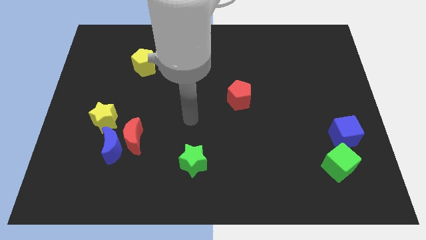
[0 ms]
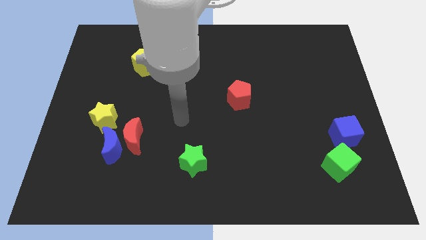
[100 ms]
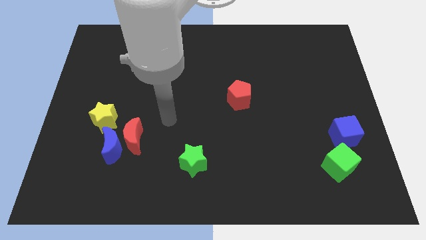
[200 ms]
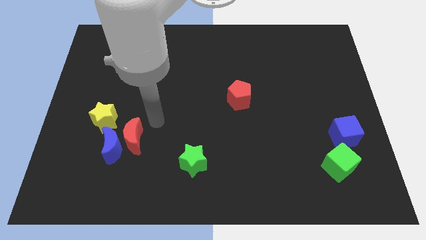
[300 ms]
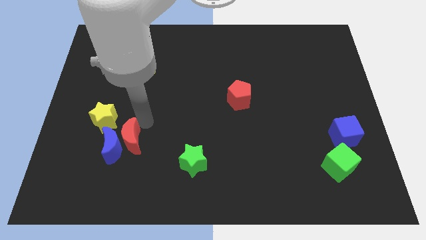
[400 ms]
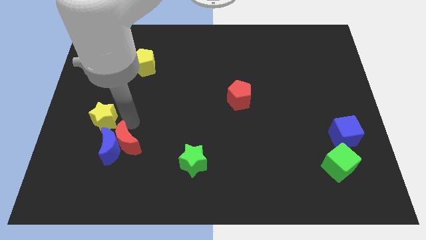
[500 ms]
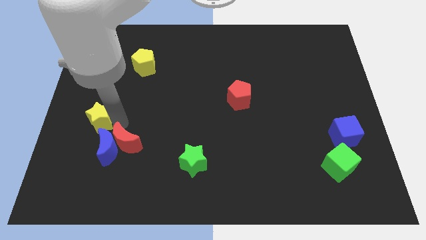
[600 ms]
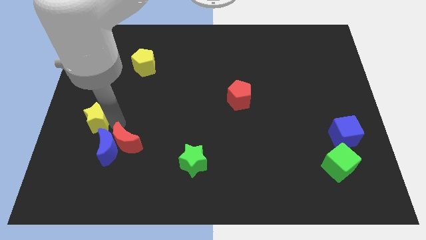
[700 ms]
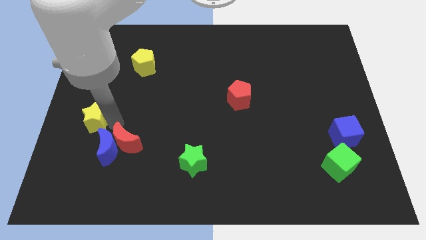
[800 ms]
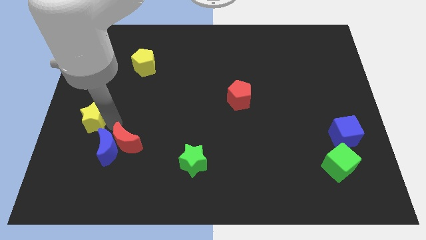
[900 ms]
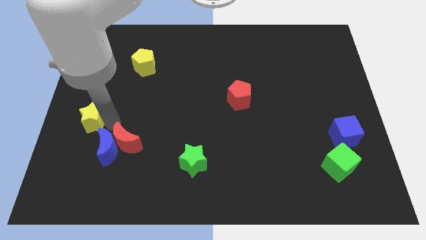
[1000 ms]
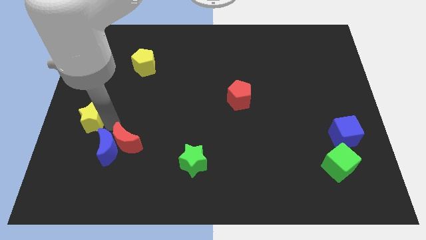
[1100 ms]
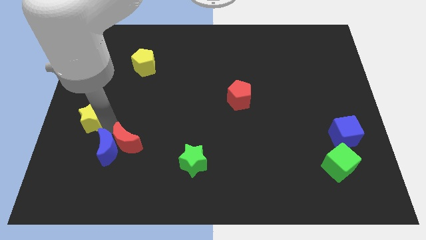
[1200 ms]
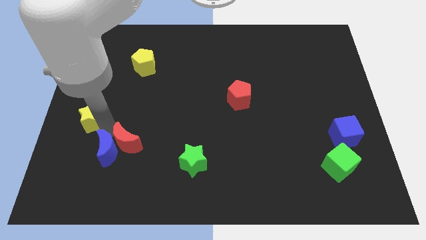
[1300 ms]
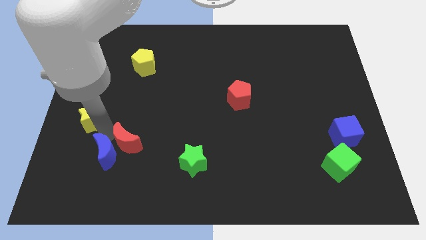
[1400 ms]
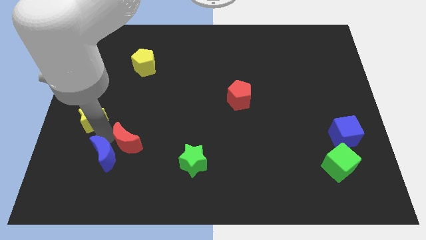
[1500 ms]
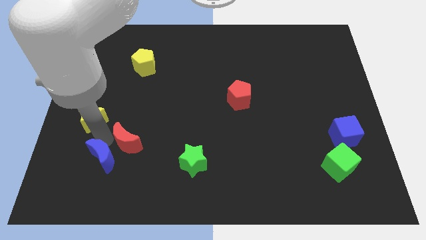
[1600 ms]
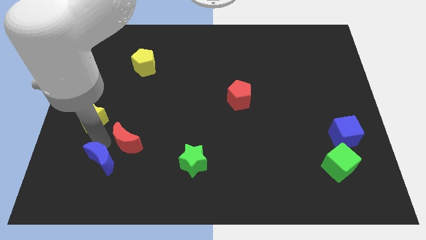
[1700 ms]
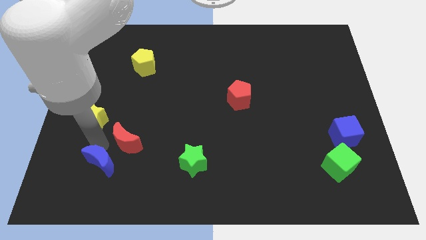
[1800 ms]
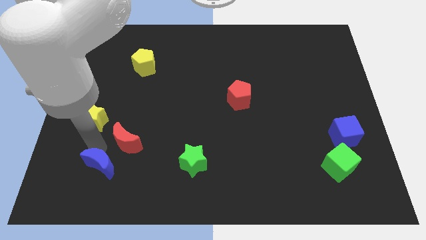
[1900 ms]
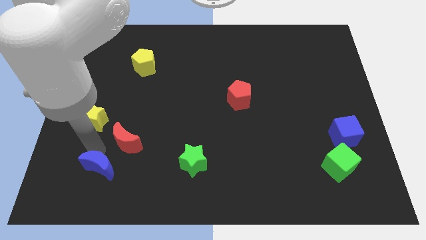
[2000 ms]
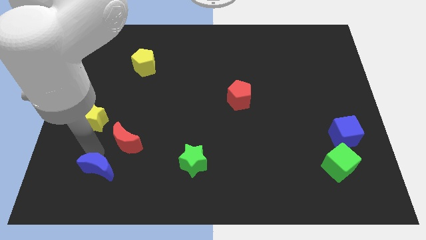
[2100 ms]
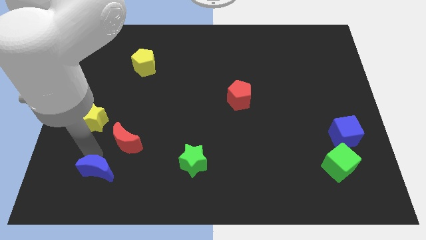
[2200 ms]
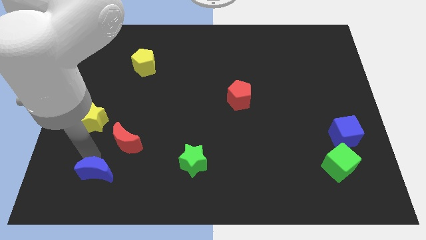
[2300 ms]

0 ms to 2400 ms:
pull the blue moon apart from the red moon and yellow star

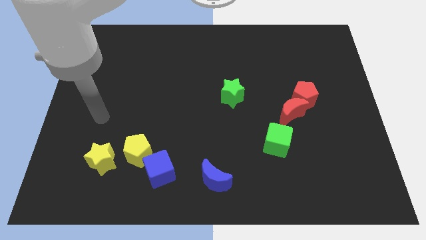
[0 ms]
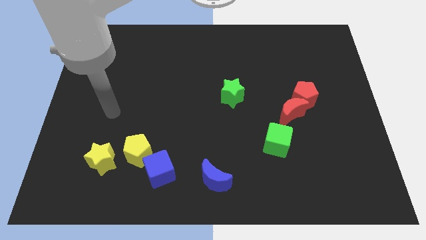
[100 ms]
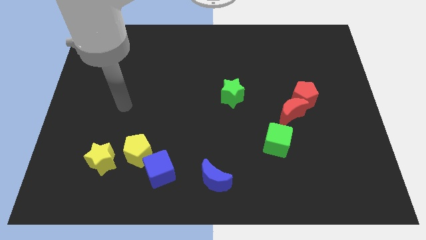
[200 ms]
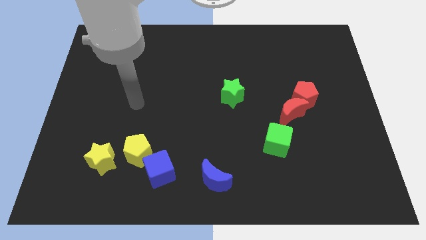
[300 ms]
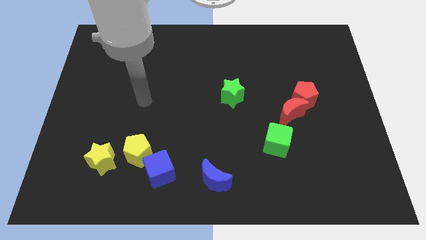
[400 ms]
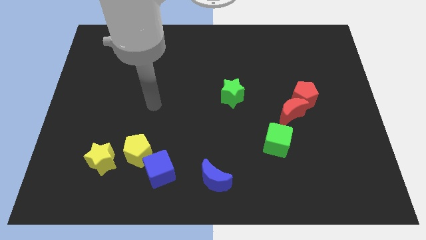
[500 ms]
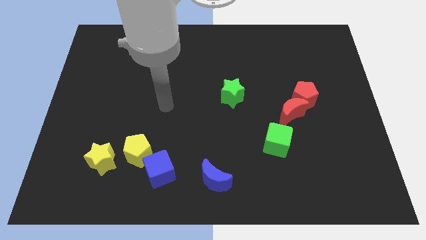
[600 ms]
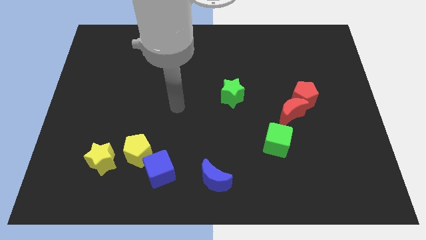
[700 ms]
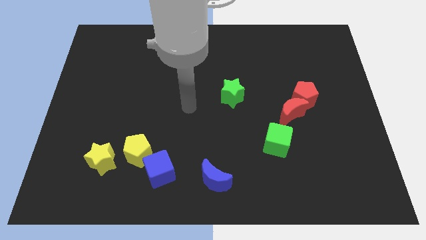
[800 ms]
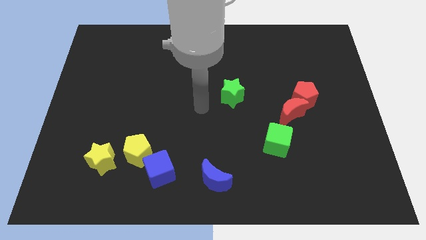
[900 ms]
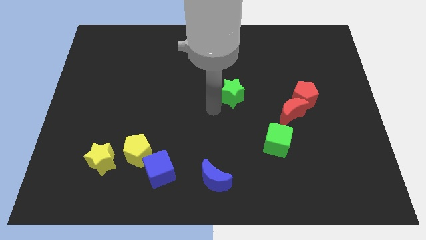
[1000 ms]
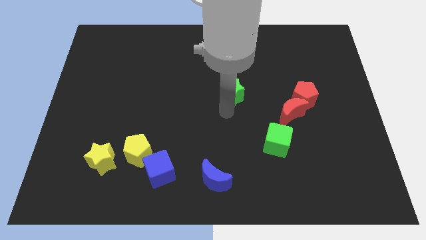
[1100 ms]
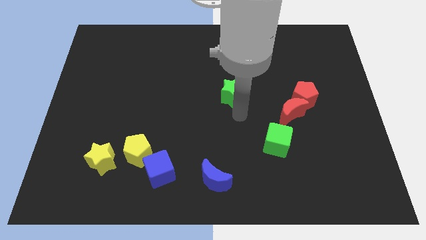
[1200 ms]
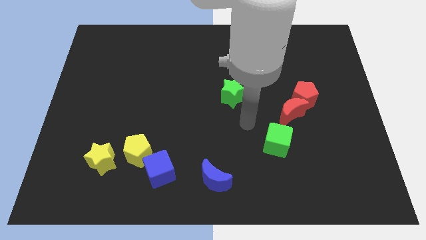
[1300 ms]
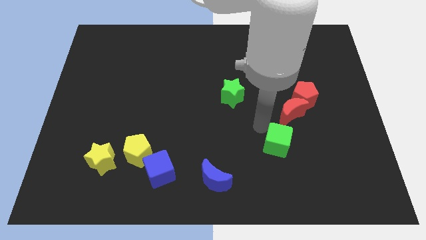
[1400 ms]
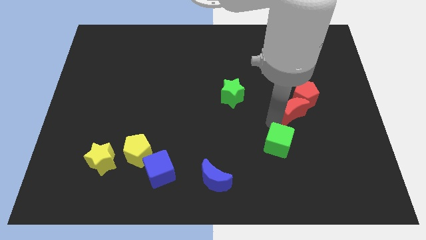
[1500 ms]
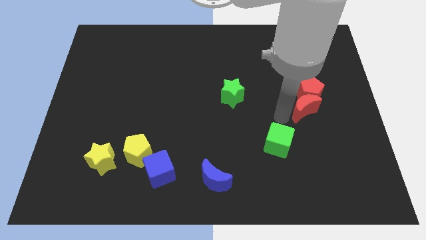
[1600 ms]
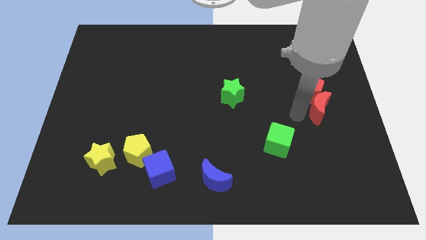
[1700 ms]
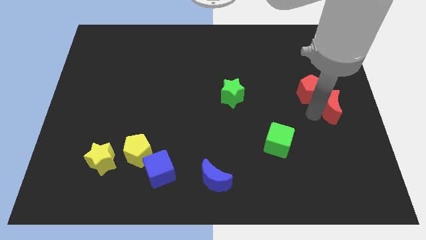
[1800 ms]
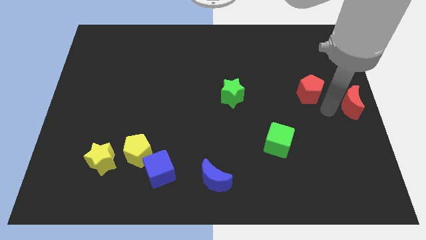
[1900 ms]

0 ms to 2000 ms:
move the red pentagon away from the red moon

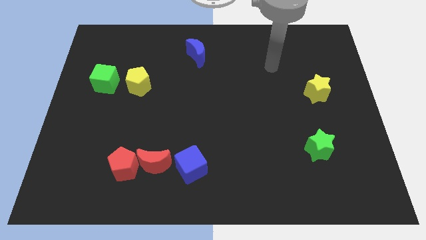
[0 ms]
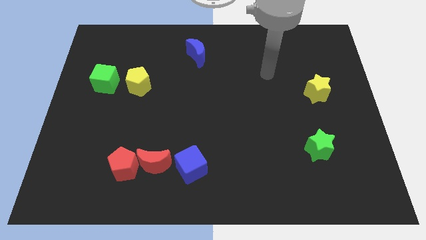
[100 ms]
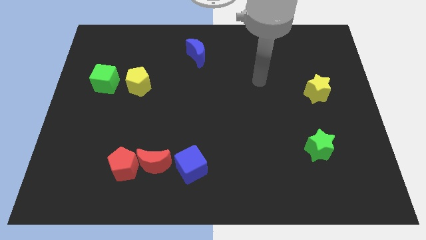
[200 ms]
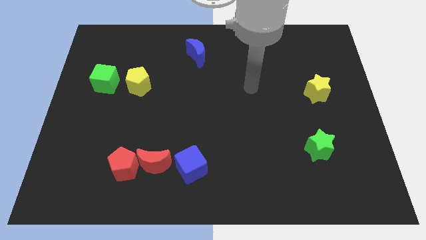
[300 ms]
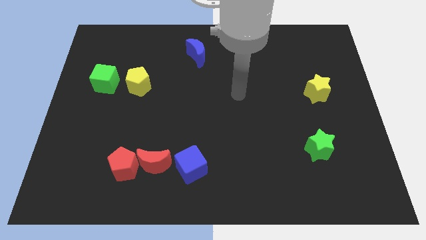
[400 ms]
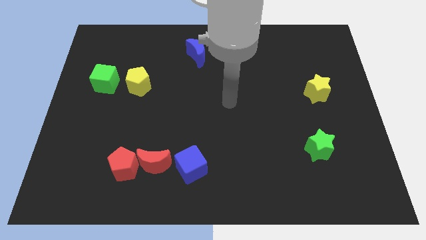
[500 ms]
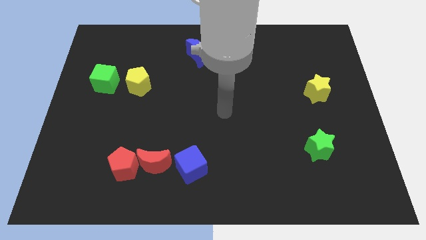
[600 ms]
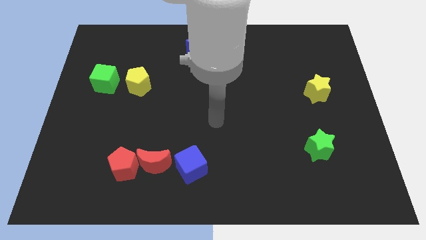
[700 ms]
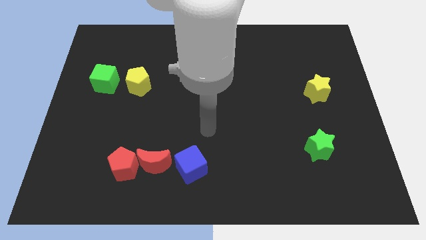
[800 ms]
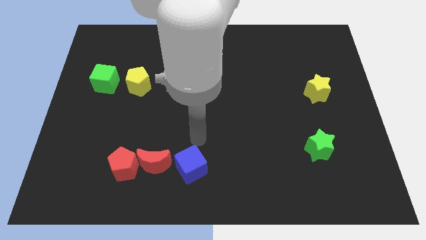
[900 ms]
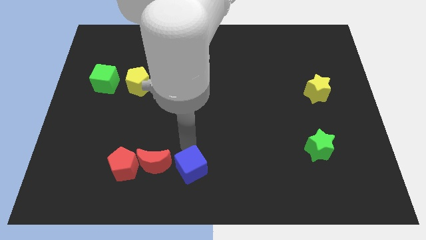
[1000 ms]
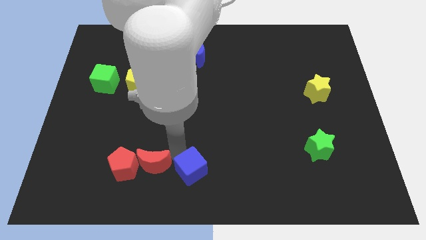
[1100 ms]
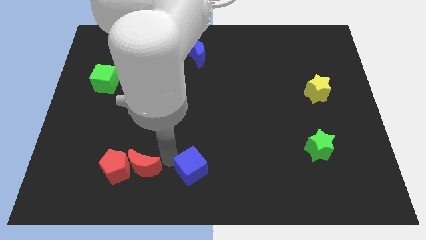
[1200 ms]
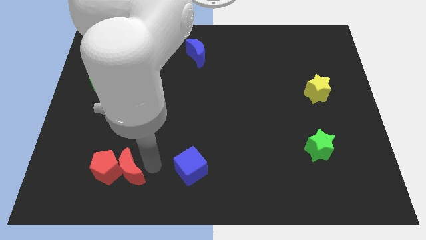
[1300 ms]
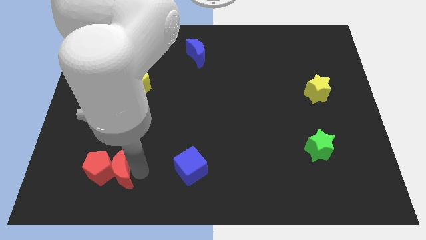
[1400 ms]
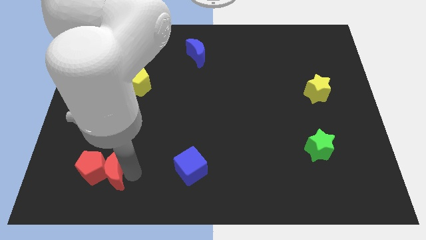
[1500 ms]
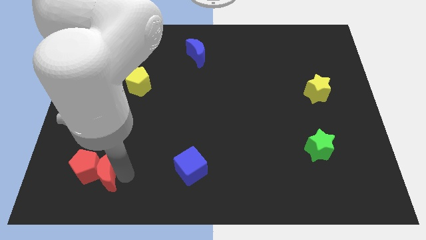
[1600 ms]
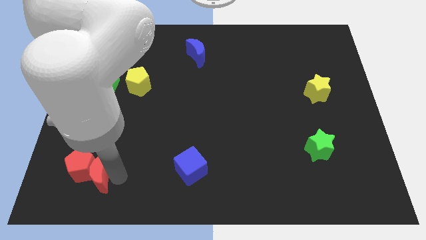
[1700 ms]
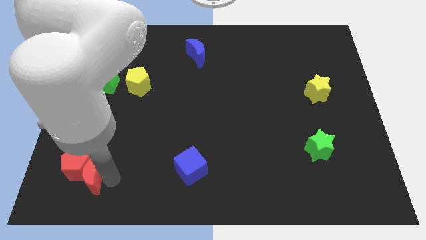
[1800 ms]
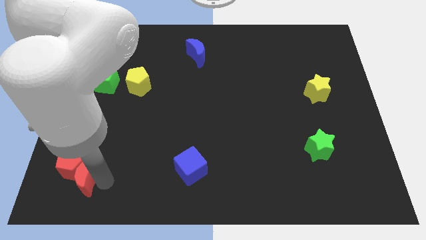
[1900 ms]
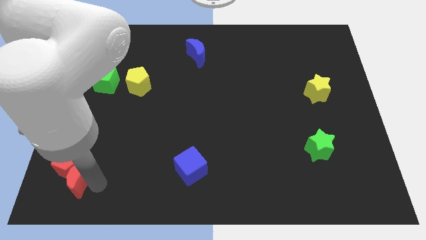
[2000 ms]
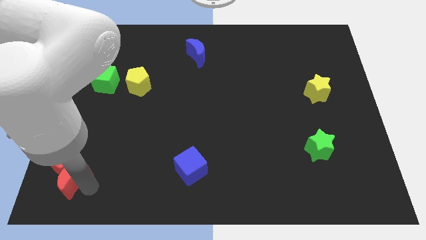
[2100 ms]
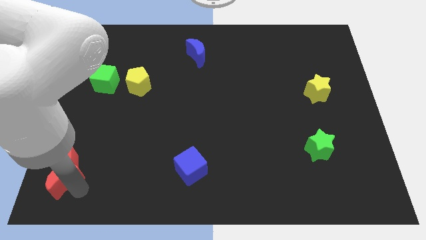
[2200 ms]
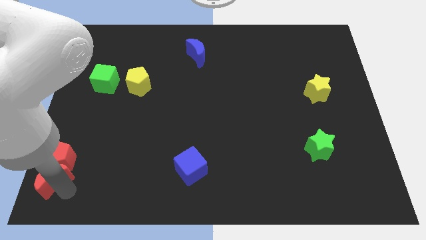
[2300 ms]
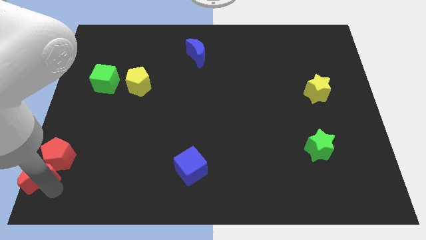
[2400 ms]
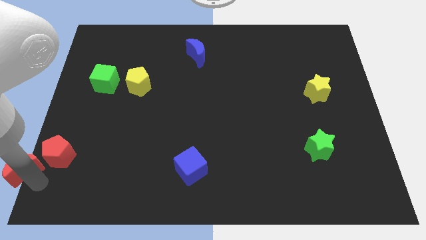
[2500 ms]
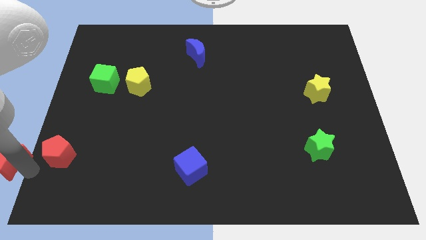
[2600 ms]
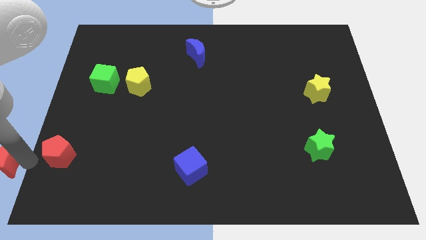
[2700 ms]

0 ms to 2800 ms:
pull the red pentagon apart from the red moon

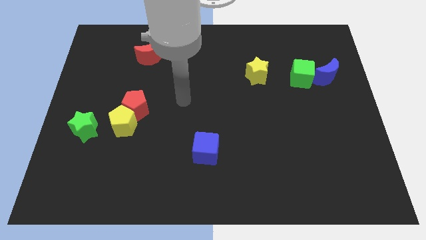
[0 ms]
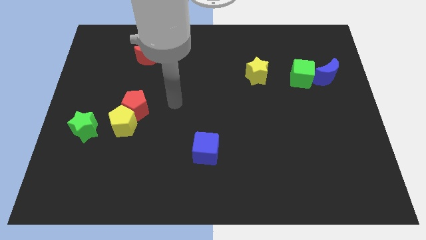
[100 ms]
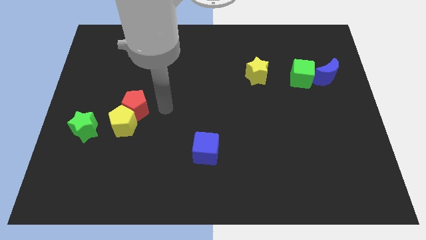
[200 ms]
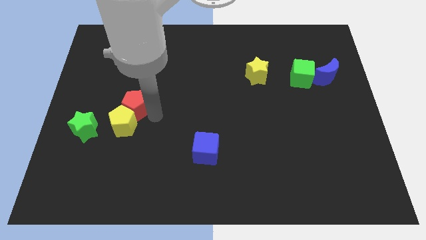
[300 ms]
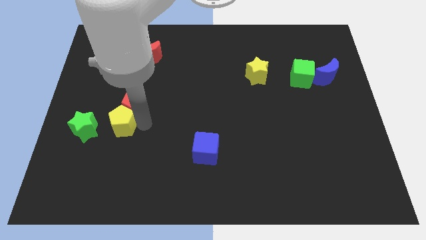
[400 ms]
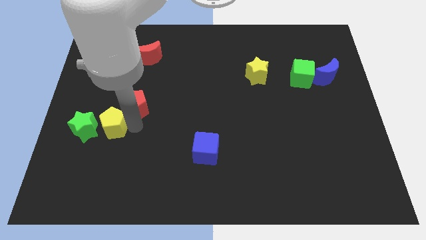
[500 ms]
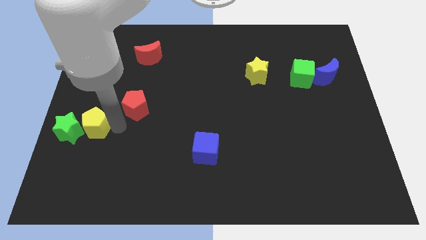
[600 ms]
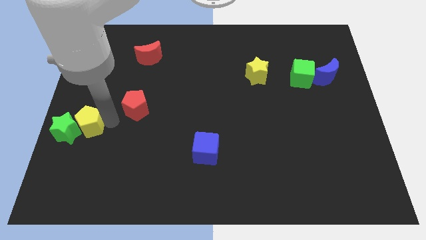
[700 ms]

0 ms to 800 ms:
pull the red pentagon apart from the yellow pentagon

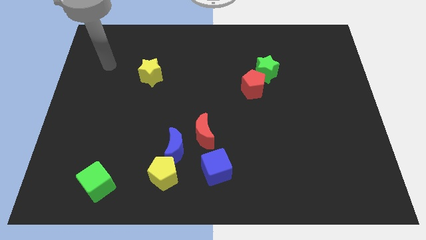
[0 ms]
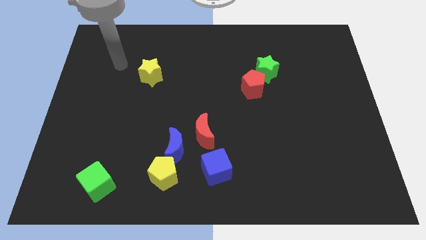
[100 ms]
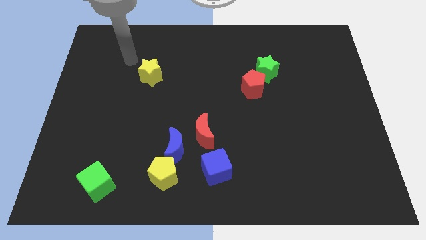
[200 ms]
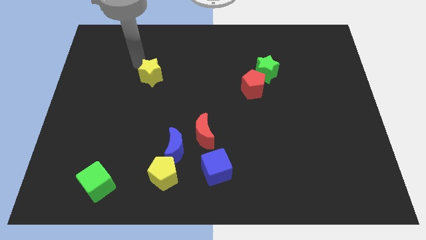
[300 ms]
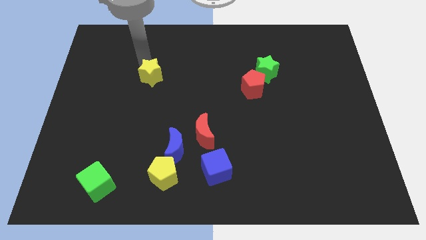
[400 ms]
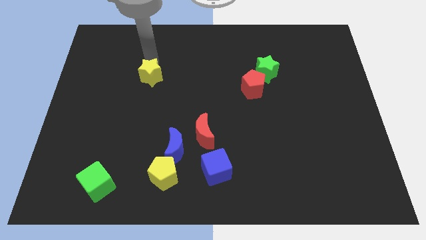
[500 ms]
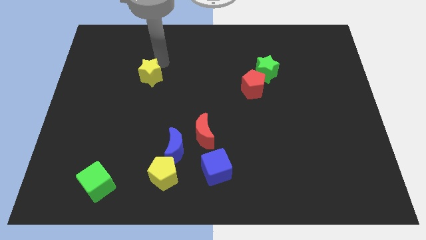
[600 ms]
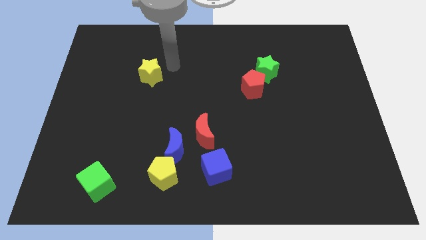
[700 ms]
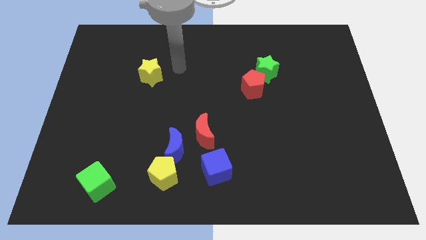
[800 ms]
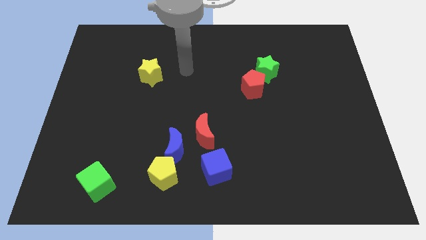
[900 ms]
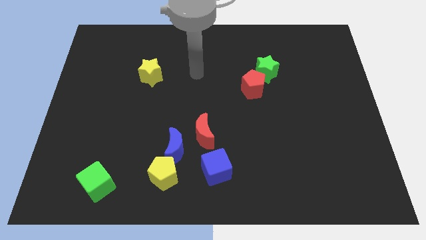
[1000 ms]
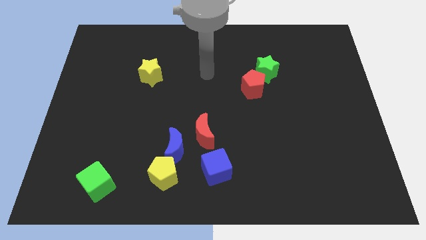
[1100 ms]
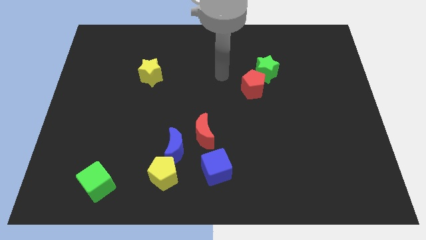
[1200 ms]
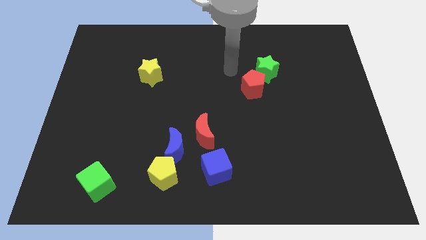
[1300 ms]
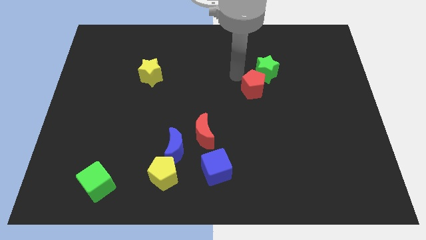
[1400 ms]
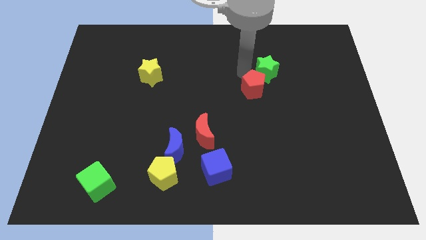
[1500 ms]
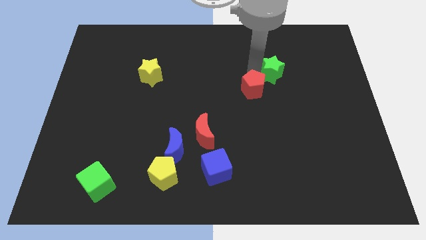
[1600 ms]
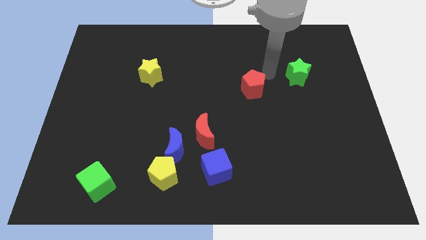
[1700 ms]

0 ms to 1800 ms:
move the red pentagon away from the green star
